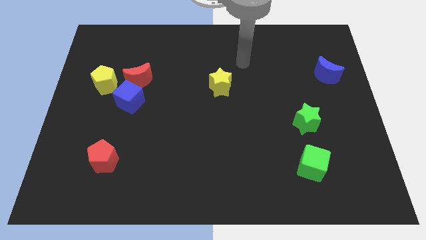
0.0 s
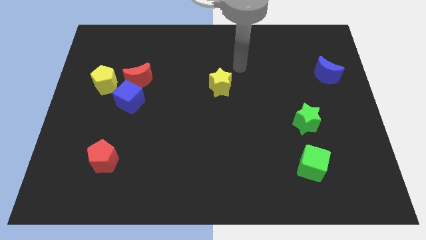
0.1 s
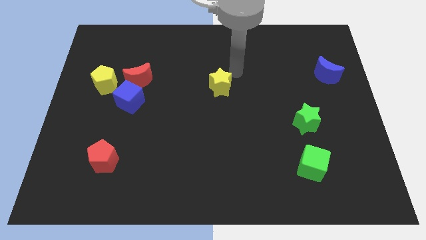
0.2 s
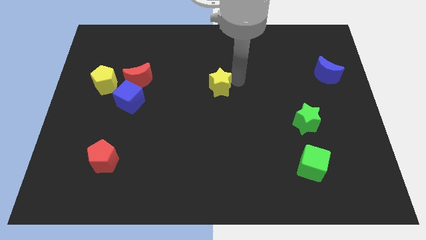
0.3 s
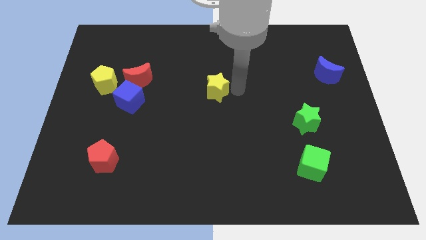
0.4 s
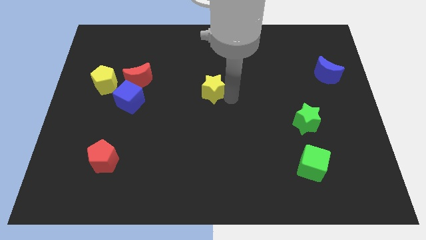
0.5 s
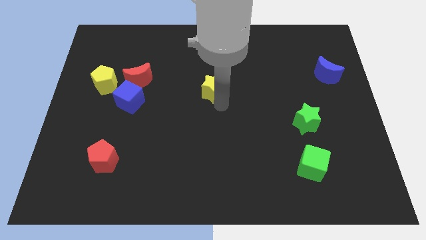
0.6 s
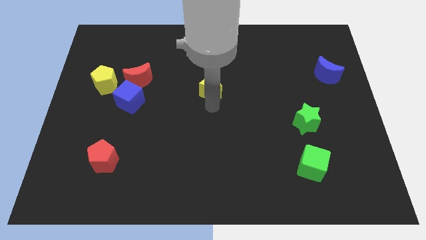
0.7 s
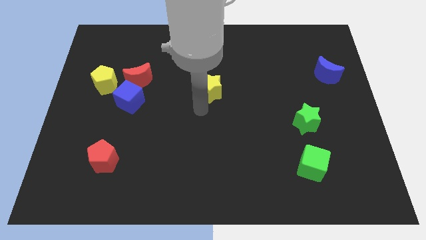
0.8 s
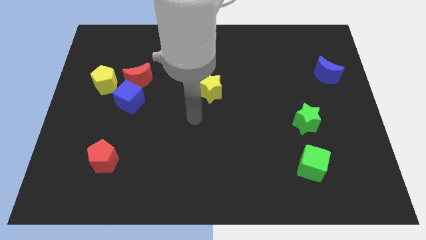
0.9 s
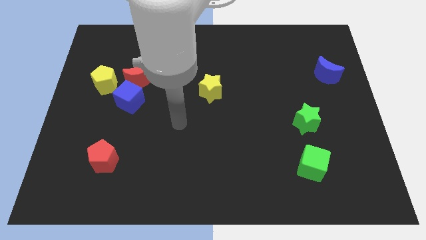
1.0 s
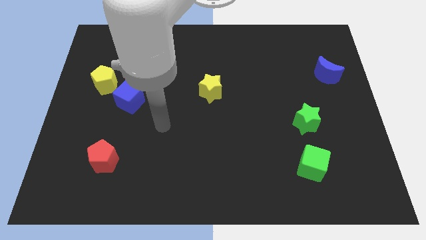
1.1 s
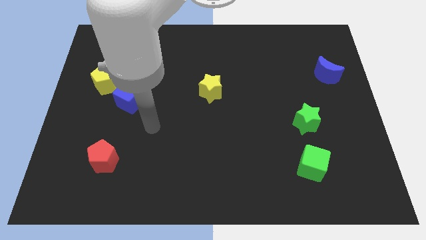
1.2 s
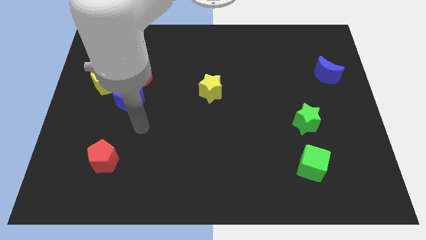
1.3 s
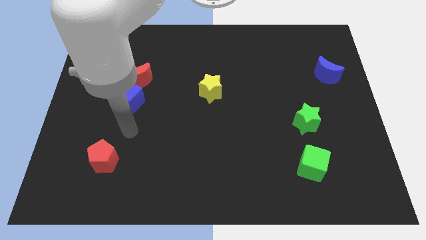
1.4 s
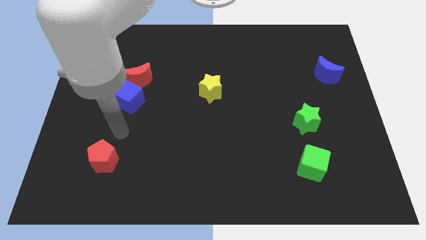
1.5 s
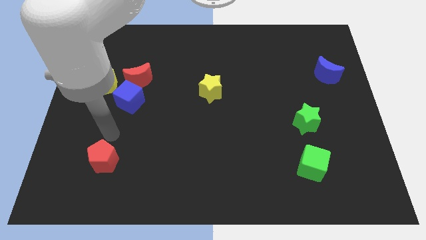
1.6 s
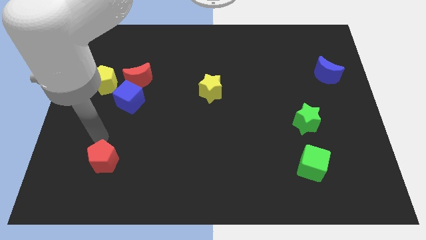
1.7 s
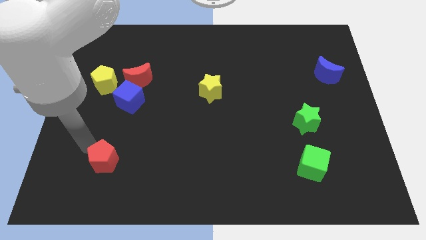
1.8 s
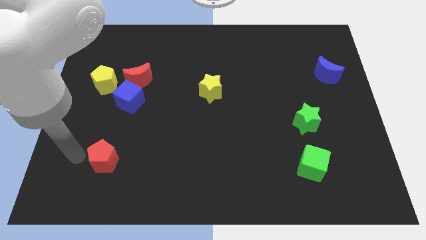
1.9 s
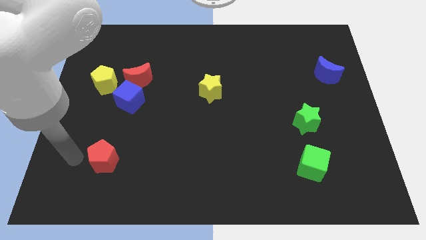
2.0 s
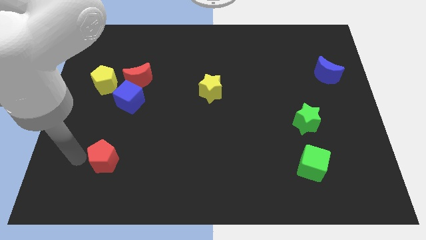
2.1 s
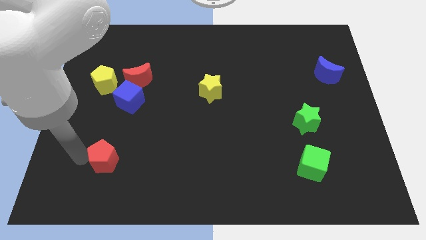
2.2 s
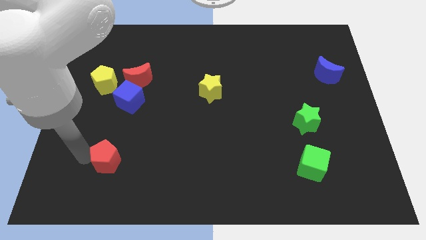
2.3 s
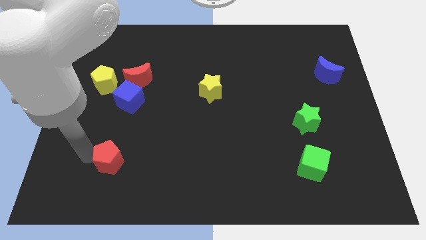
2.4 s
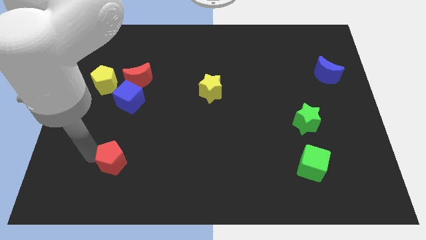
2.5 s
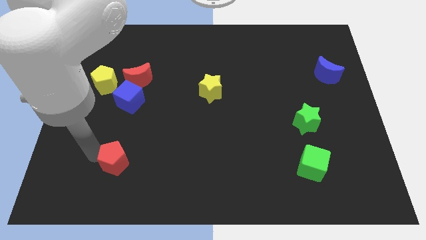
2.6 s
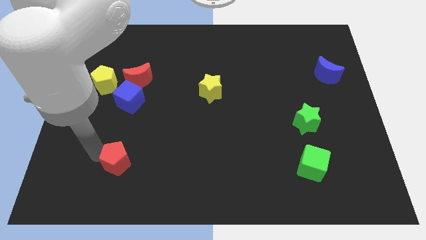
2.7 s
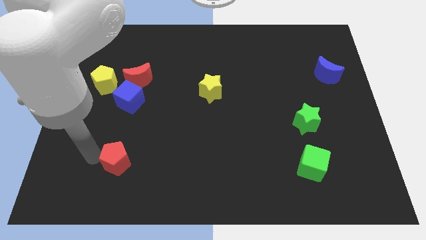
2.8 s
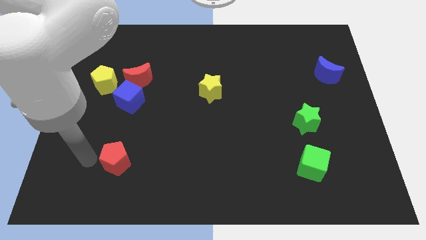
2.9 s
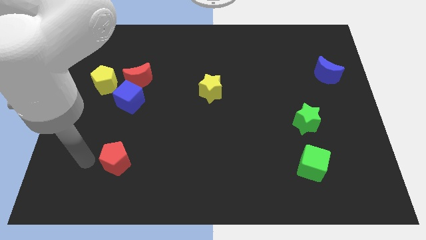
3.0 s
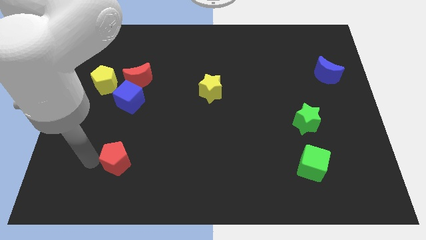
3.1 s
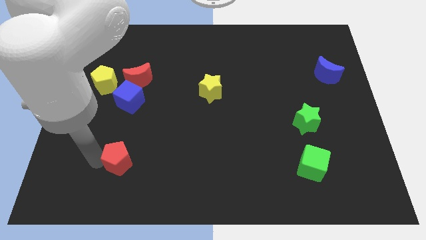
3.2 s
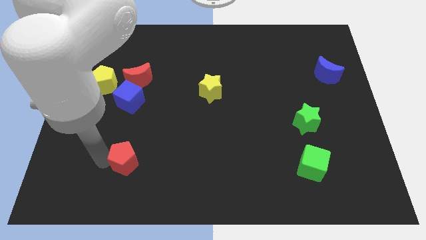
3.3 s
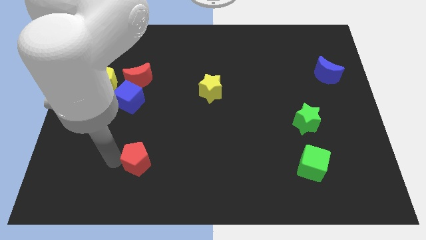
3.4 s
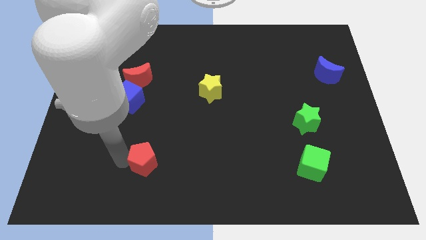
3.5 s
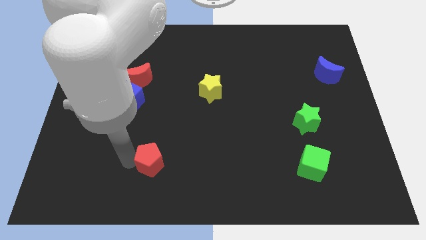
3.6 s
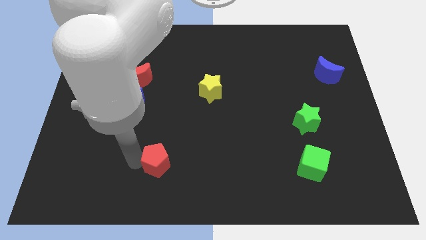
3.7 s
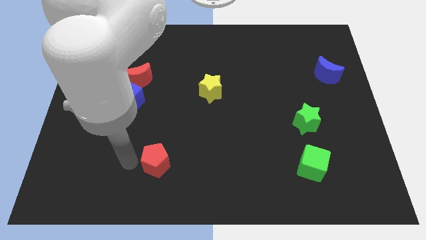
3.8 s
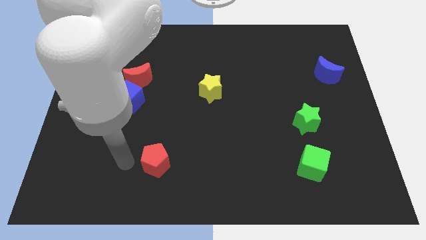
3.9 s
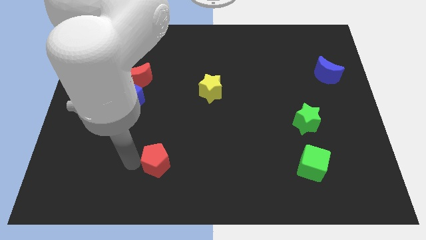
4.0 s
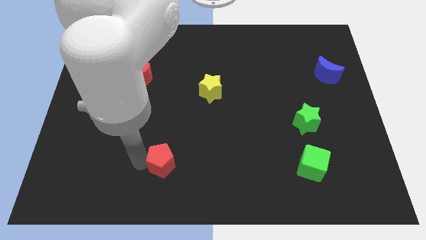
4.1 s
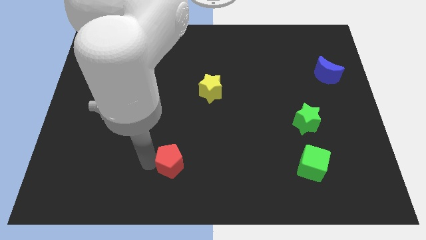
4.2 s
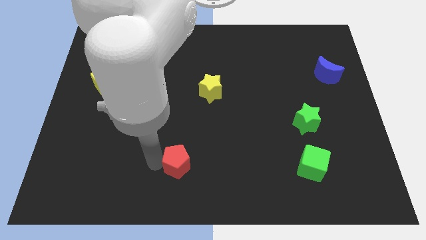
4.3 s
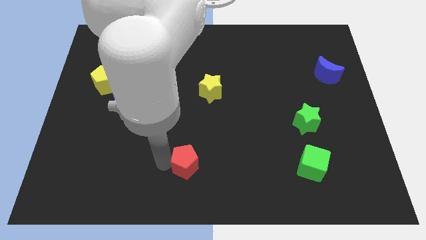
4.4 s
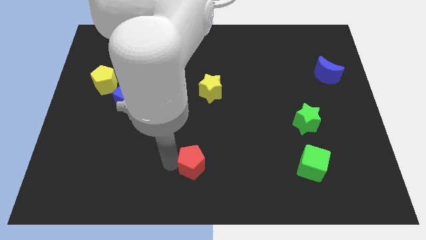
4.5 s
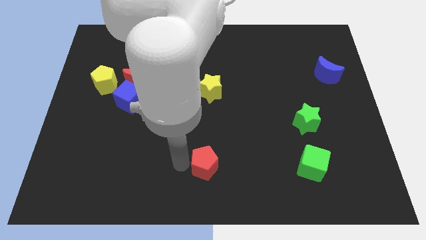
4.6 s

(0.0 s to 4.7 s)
push the red pentagon right

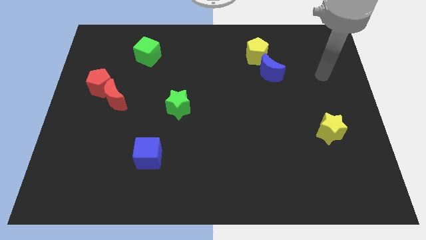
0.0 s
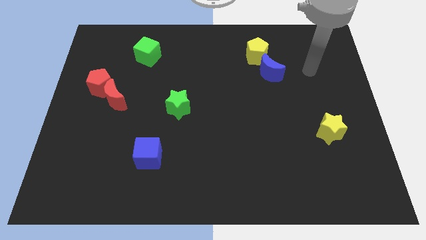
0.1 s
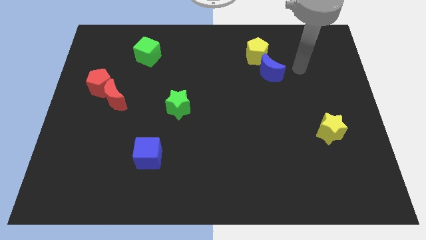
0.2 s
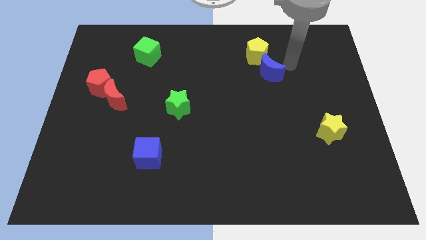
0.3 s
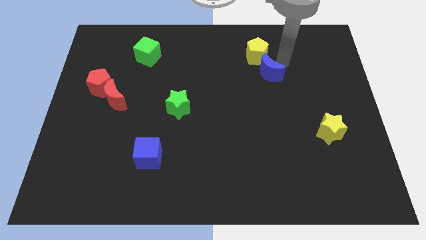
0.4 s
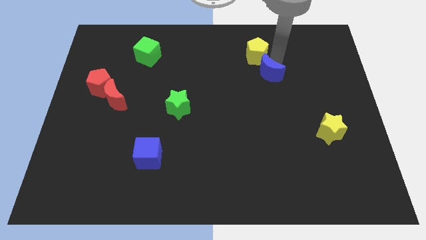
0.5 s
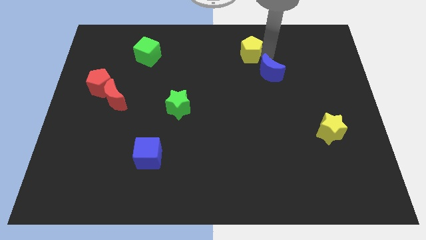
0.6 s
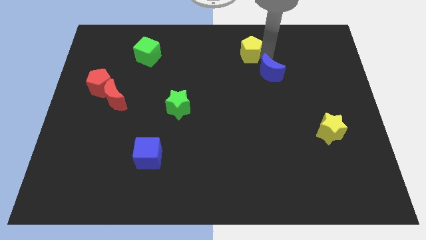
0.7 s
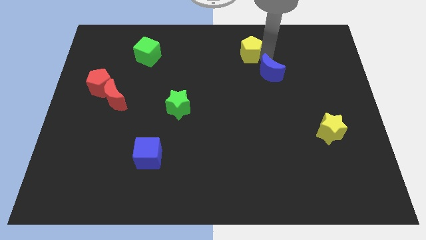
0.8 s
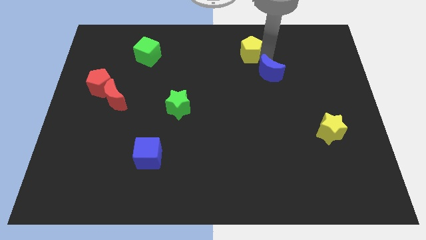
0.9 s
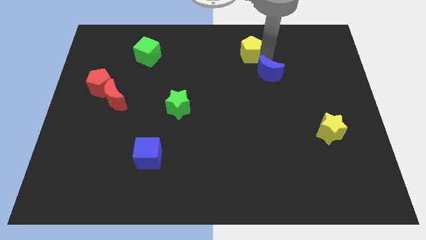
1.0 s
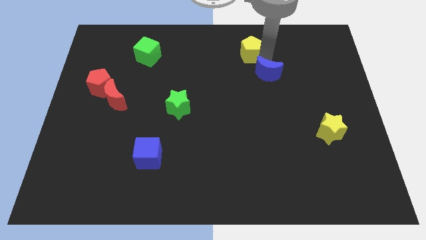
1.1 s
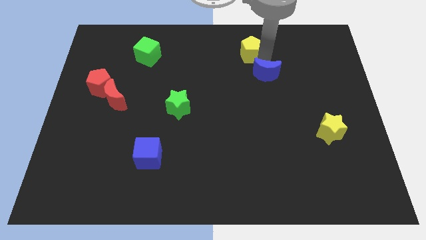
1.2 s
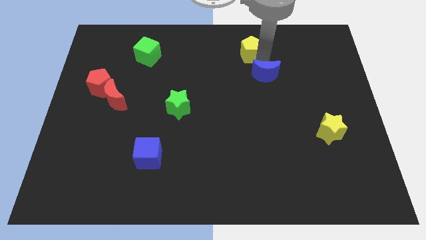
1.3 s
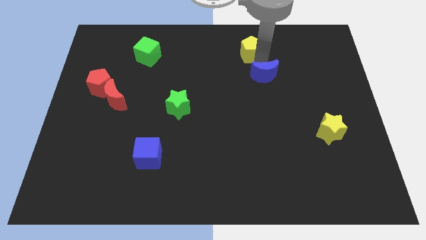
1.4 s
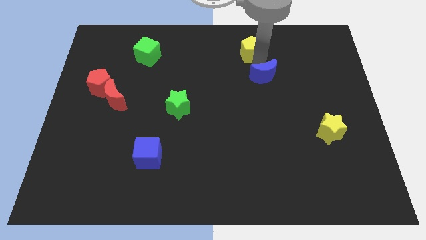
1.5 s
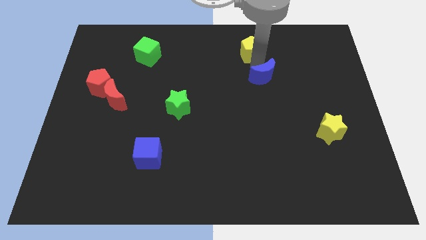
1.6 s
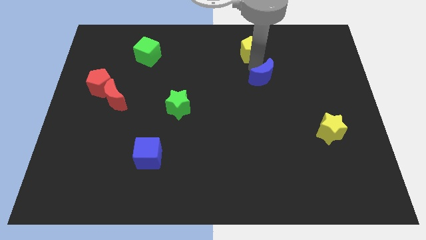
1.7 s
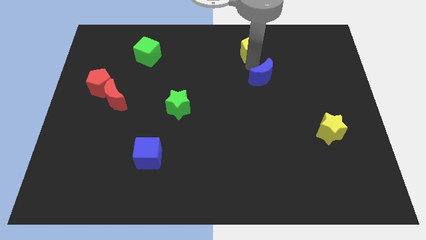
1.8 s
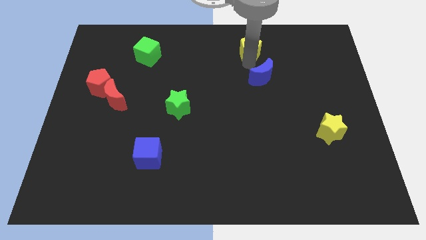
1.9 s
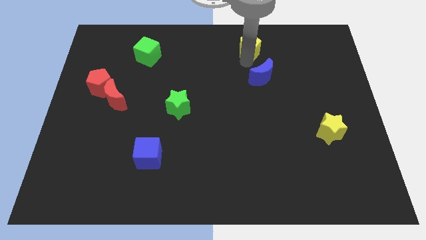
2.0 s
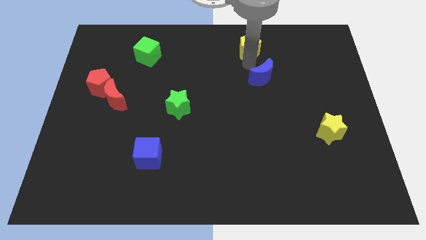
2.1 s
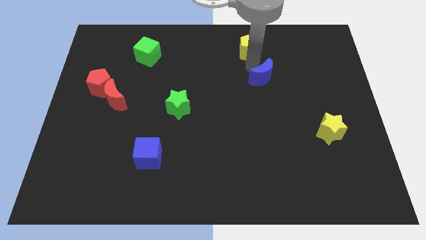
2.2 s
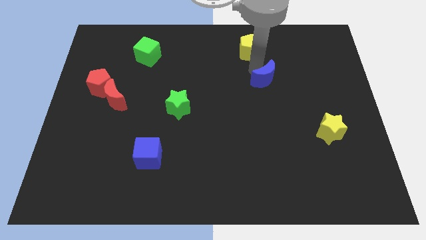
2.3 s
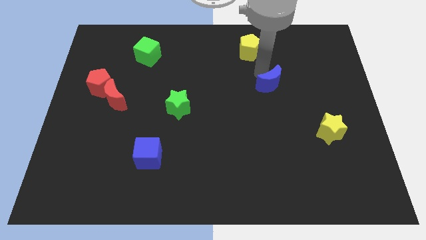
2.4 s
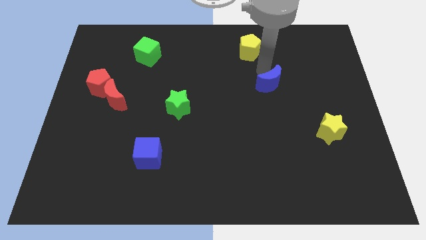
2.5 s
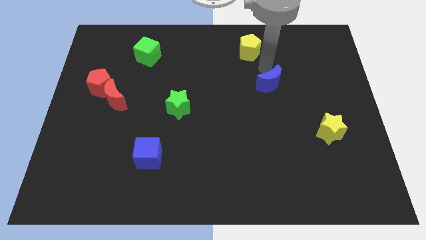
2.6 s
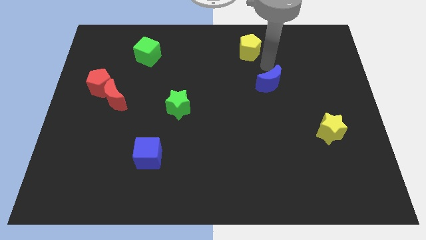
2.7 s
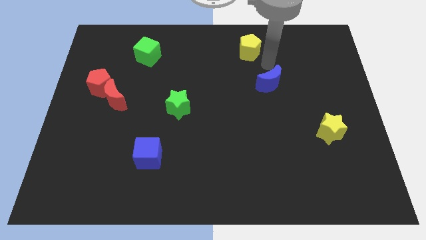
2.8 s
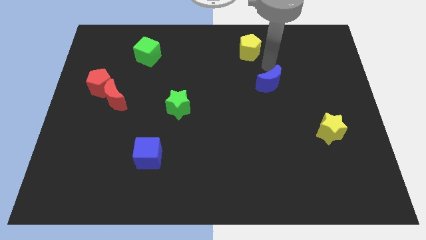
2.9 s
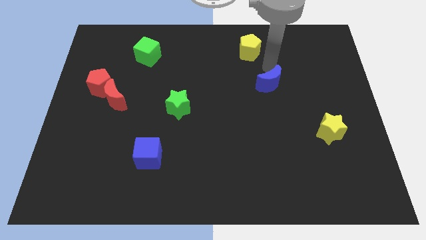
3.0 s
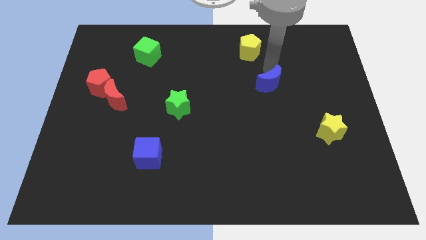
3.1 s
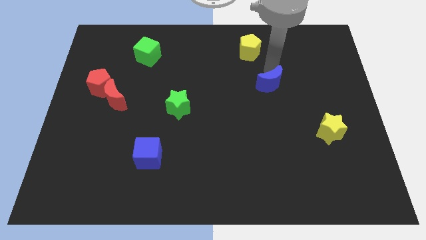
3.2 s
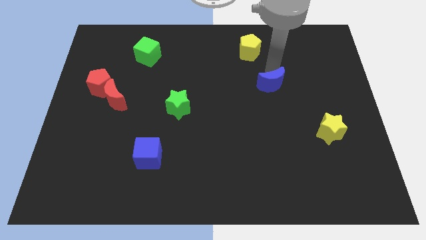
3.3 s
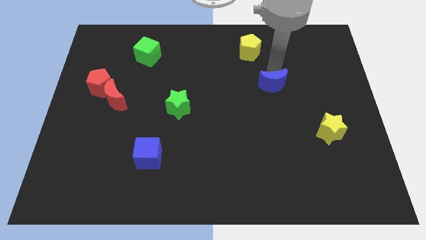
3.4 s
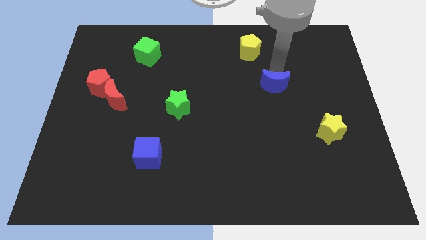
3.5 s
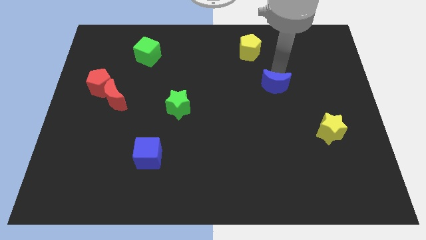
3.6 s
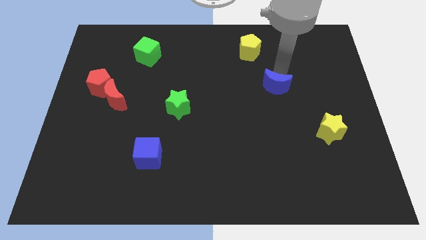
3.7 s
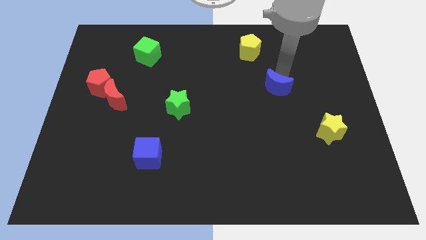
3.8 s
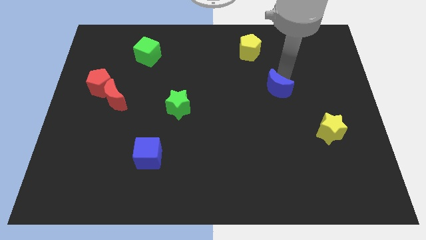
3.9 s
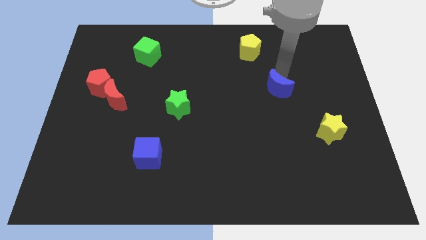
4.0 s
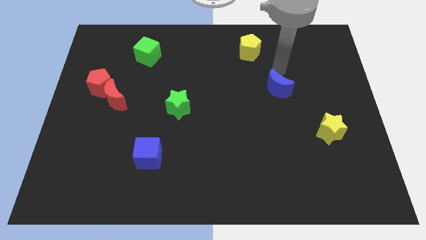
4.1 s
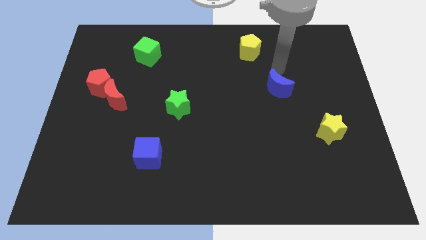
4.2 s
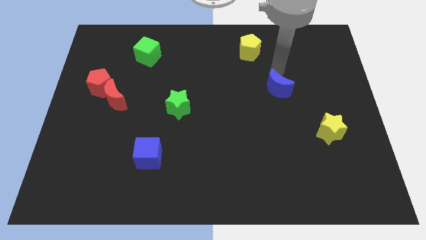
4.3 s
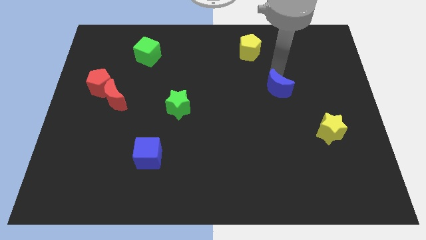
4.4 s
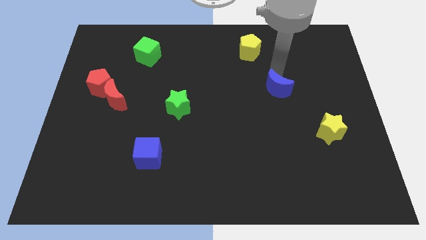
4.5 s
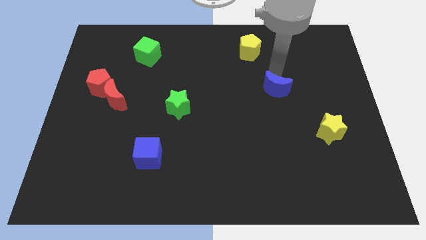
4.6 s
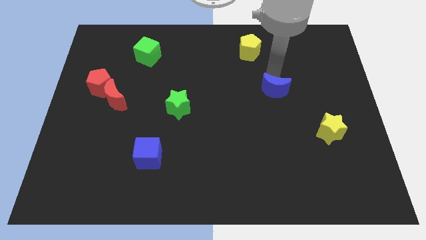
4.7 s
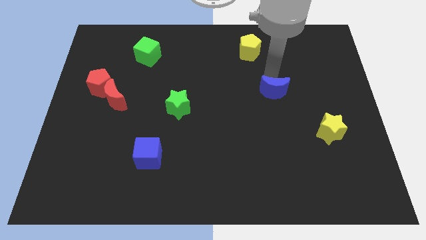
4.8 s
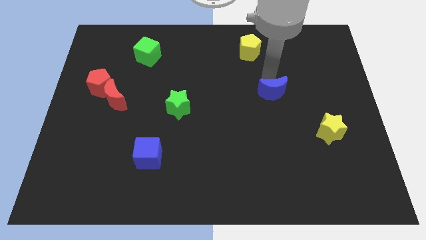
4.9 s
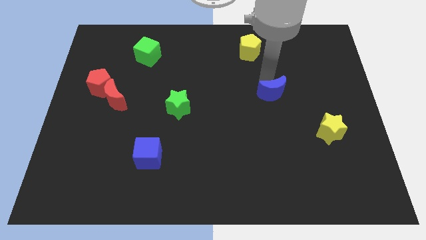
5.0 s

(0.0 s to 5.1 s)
move the blue moon slightly down
